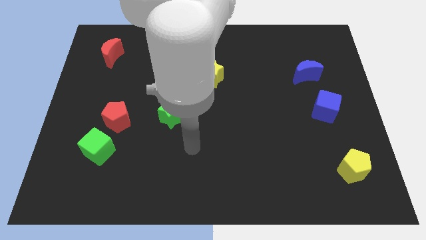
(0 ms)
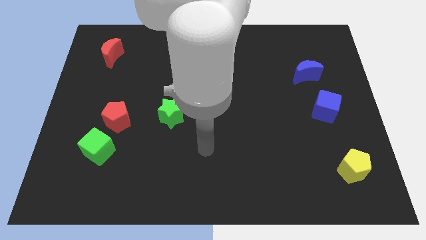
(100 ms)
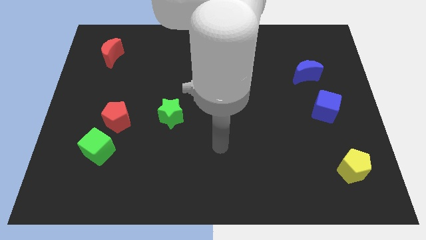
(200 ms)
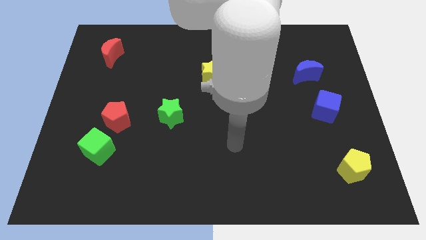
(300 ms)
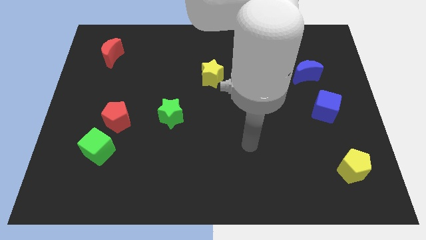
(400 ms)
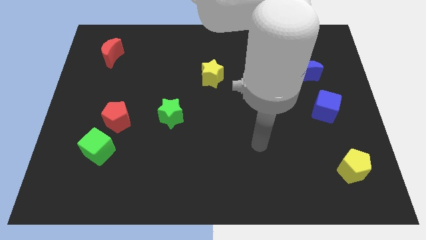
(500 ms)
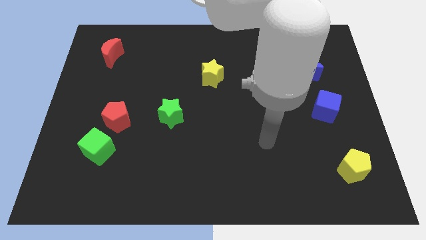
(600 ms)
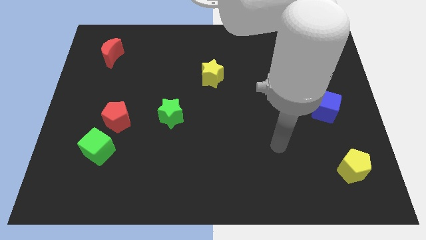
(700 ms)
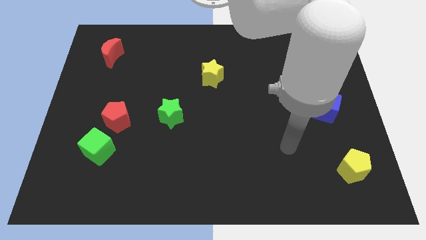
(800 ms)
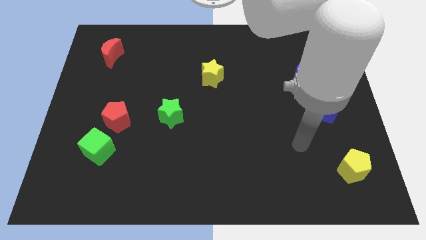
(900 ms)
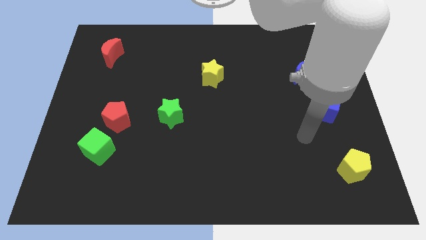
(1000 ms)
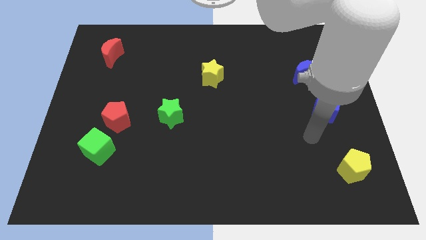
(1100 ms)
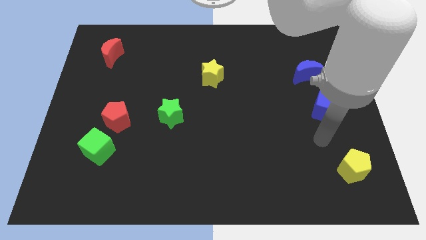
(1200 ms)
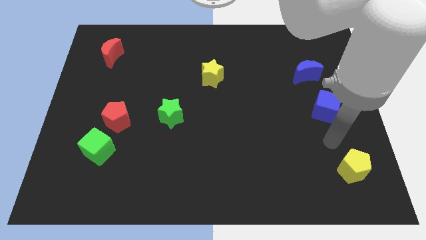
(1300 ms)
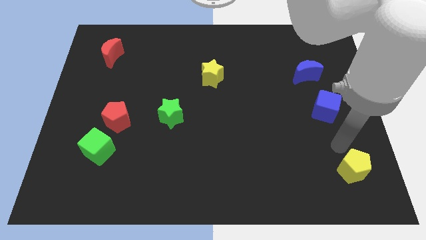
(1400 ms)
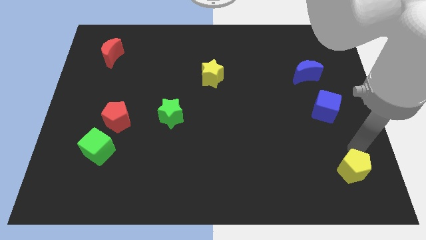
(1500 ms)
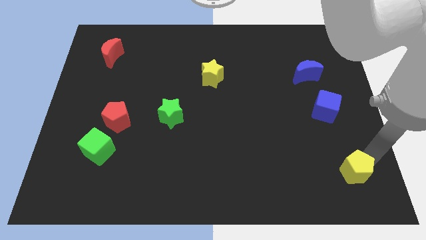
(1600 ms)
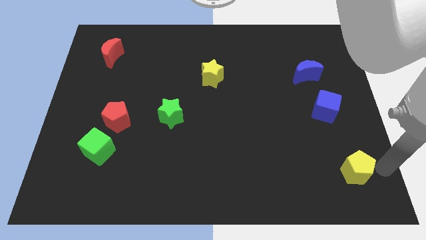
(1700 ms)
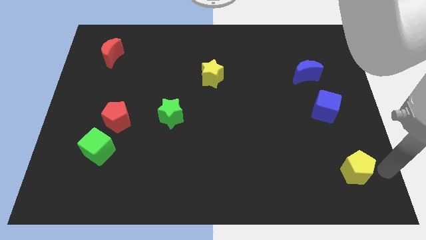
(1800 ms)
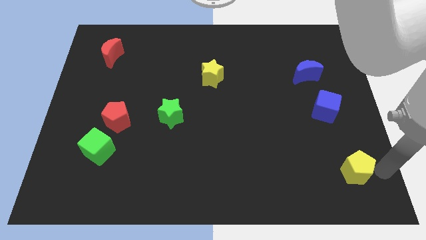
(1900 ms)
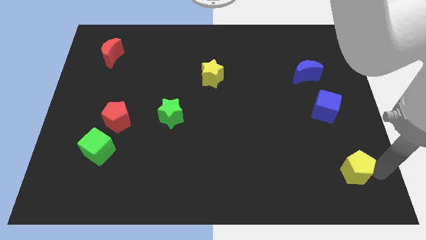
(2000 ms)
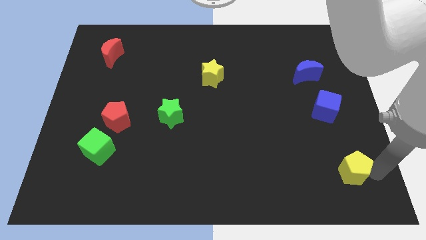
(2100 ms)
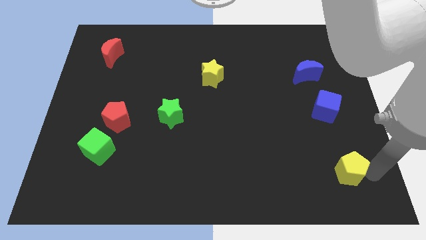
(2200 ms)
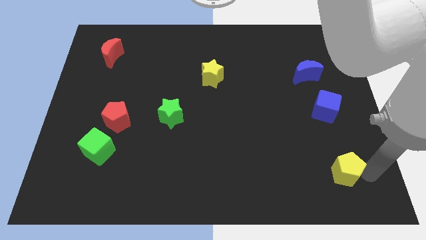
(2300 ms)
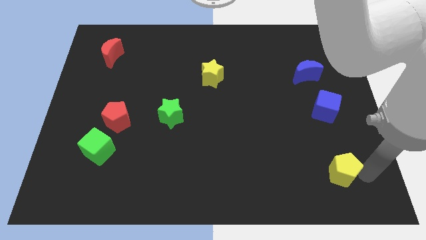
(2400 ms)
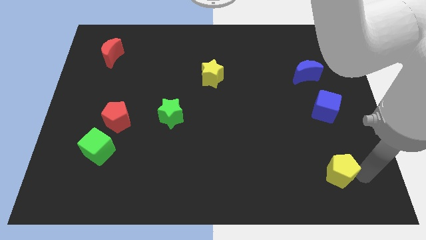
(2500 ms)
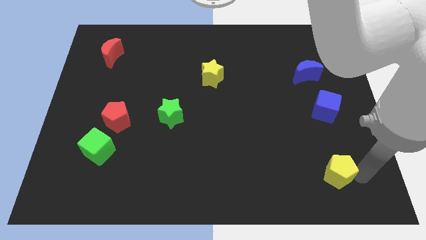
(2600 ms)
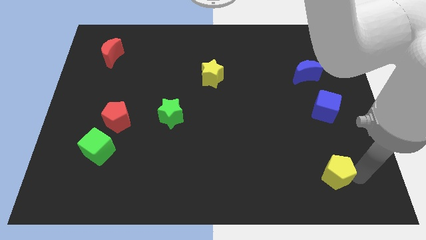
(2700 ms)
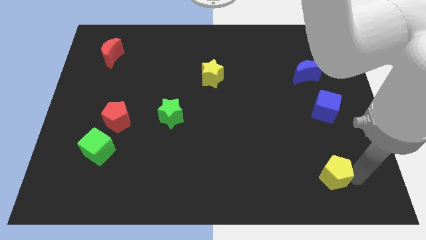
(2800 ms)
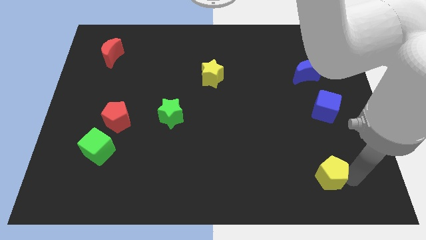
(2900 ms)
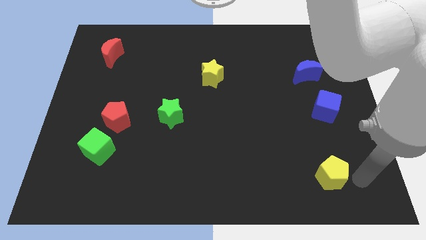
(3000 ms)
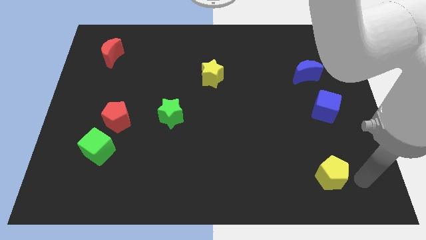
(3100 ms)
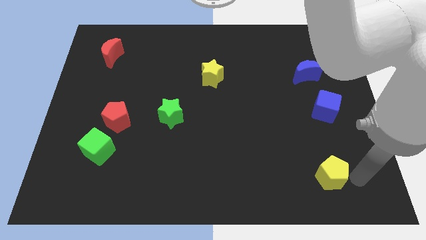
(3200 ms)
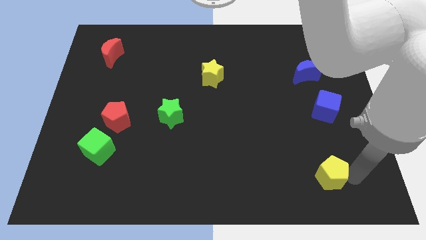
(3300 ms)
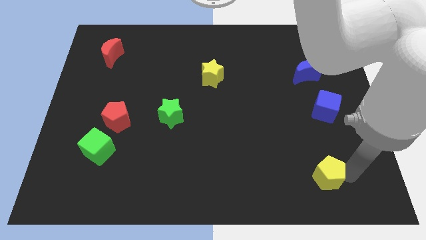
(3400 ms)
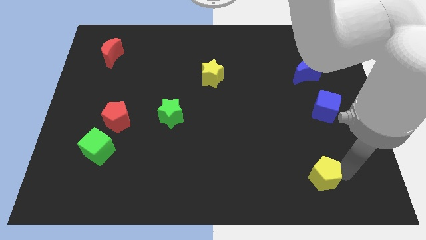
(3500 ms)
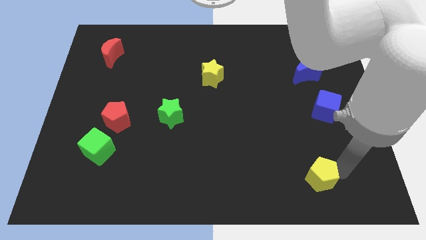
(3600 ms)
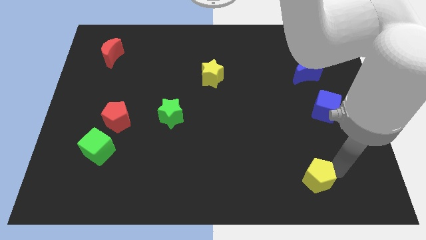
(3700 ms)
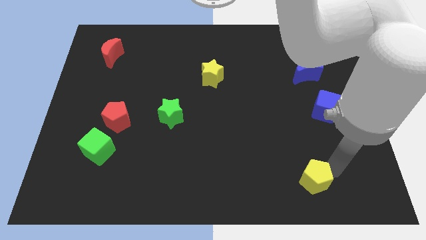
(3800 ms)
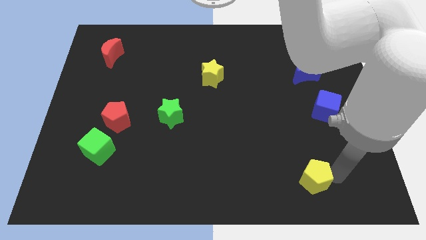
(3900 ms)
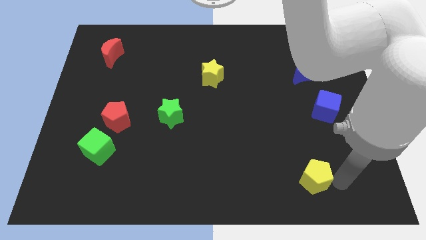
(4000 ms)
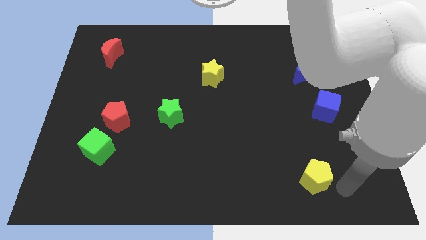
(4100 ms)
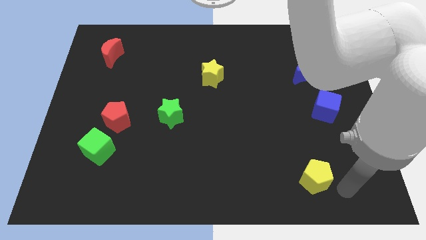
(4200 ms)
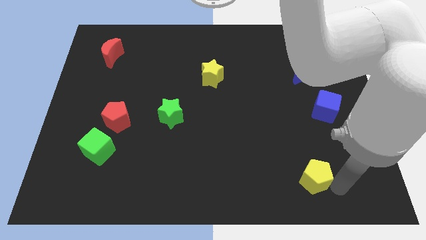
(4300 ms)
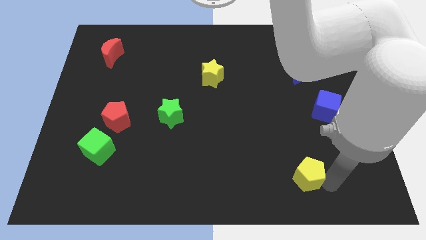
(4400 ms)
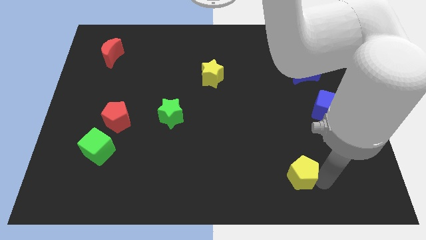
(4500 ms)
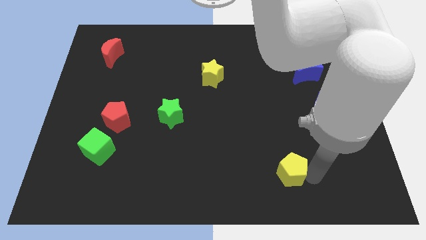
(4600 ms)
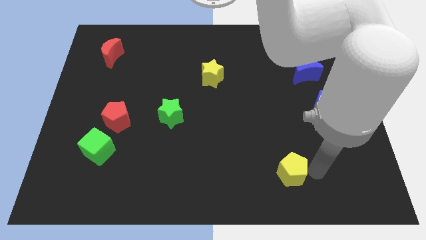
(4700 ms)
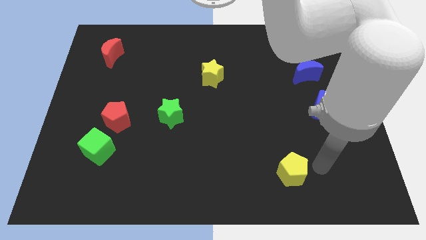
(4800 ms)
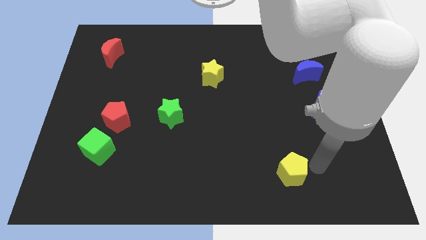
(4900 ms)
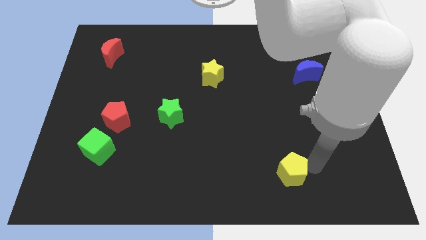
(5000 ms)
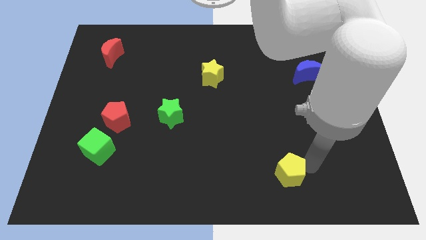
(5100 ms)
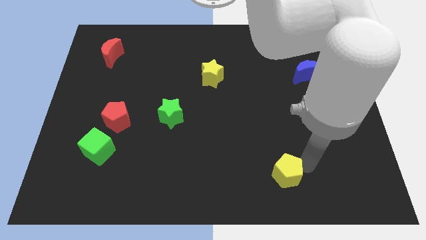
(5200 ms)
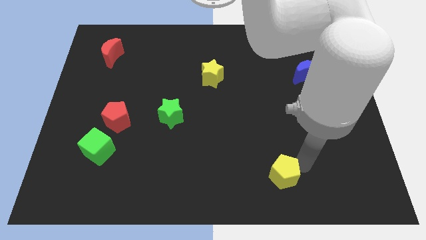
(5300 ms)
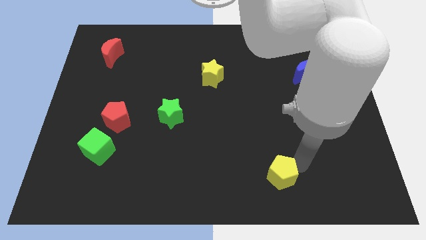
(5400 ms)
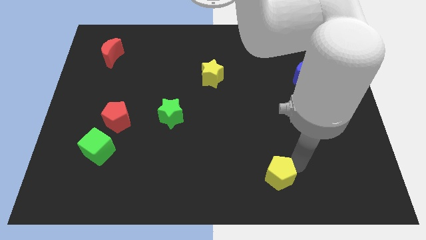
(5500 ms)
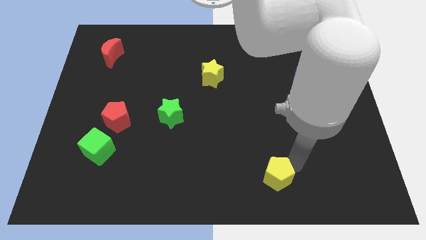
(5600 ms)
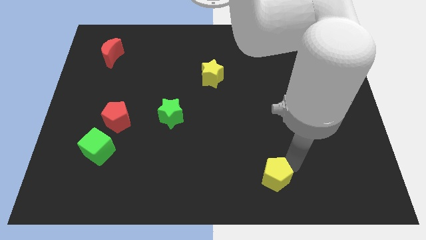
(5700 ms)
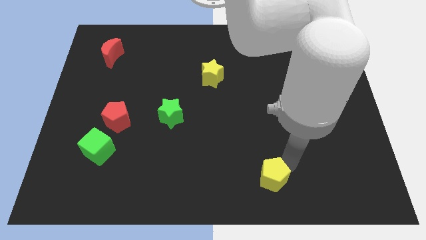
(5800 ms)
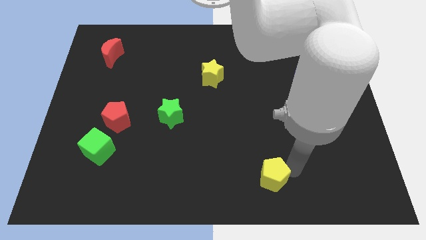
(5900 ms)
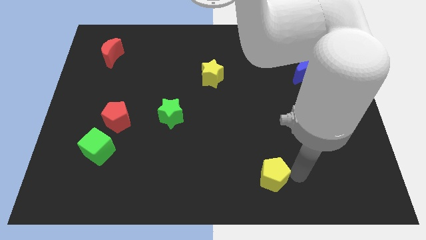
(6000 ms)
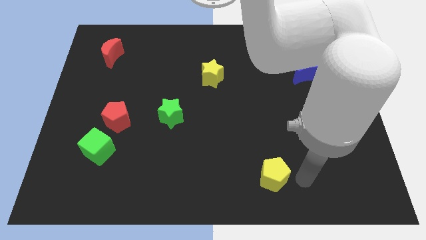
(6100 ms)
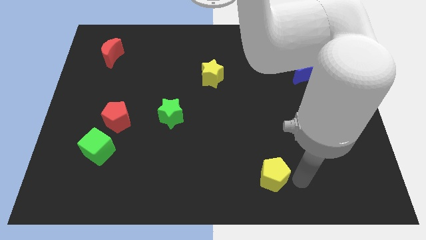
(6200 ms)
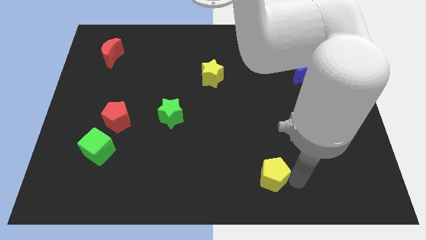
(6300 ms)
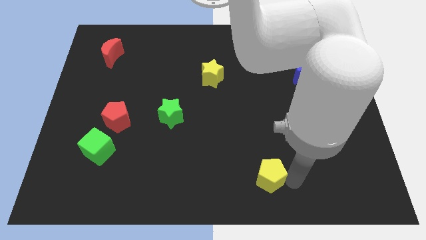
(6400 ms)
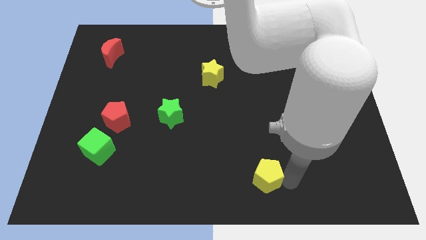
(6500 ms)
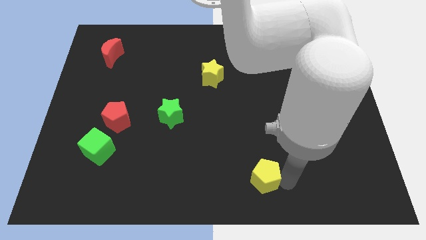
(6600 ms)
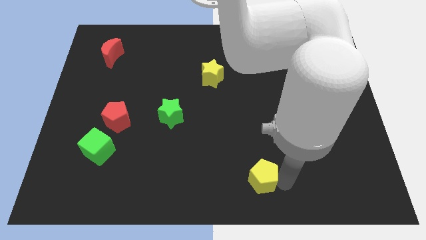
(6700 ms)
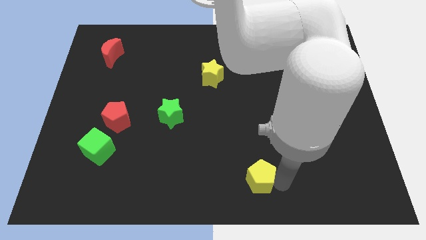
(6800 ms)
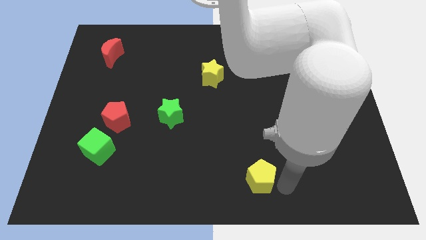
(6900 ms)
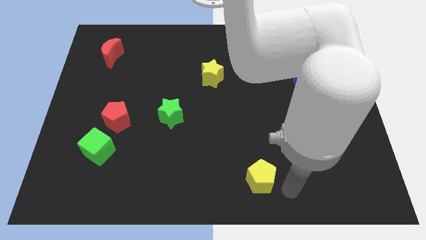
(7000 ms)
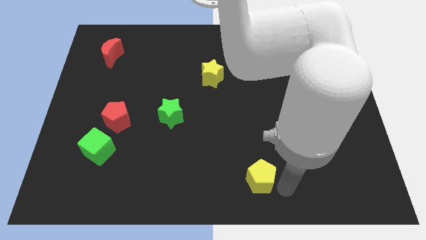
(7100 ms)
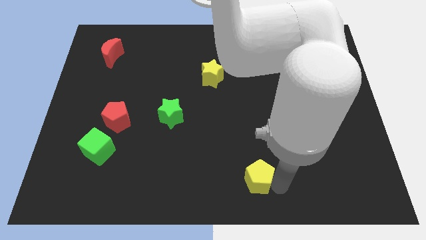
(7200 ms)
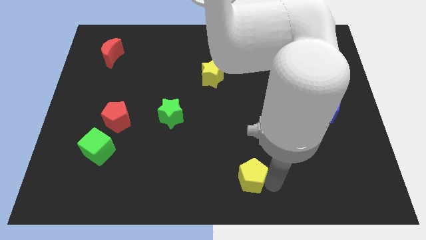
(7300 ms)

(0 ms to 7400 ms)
move the yellow pentagon left

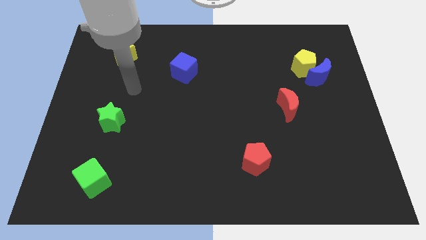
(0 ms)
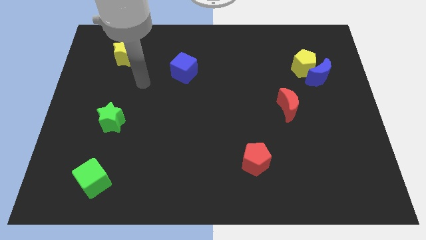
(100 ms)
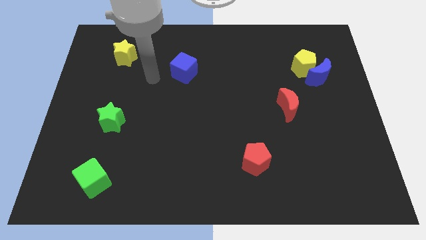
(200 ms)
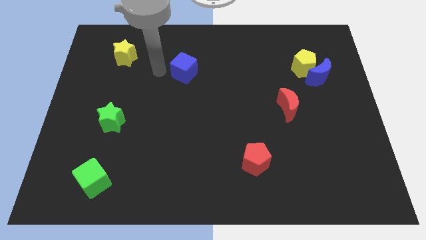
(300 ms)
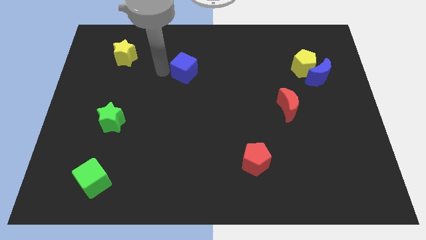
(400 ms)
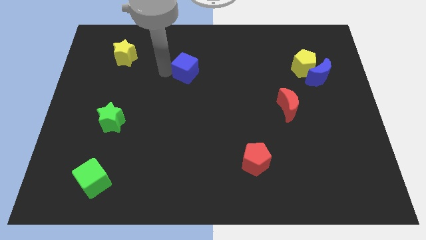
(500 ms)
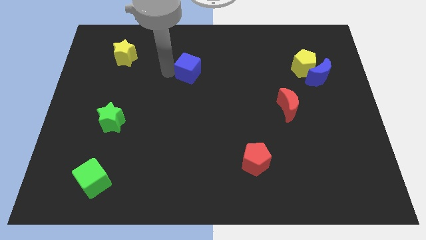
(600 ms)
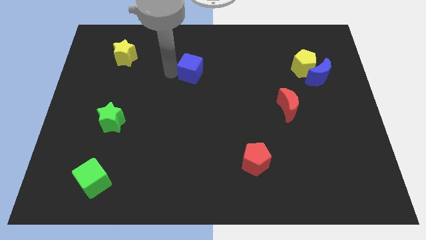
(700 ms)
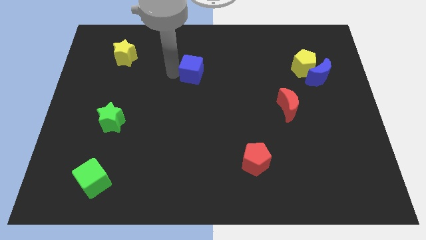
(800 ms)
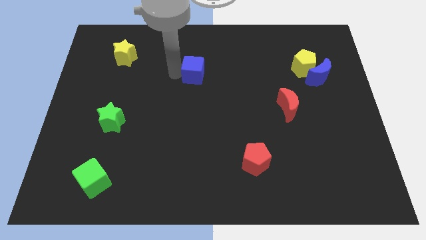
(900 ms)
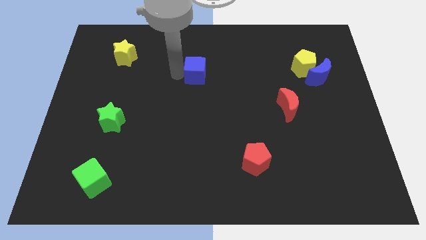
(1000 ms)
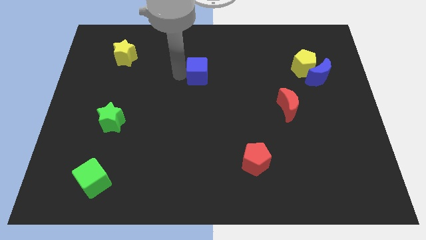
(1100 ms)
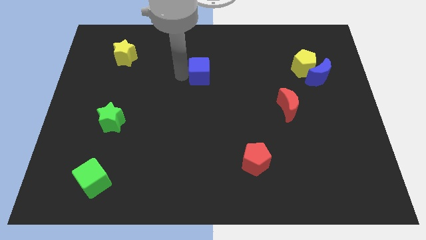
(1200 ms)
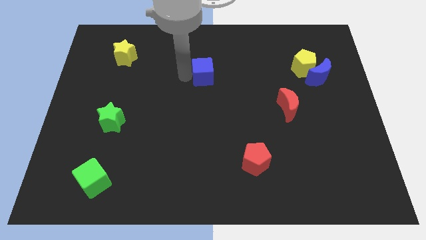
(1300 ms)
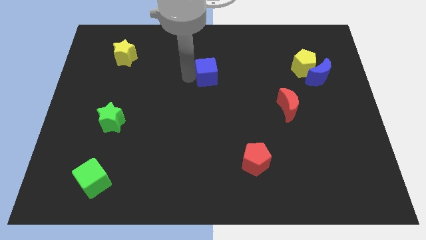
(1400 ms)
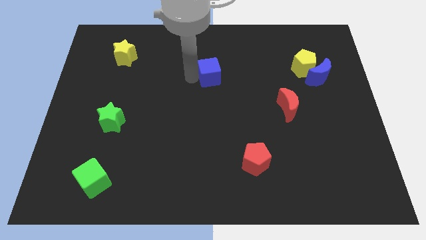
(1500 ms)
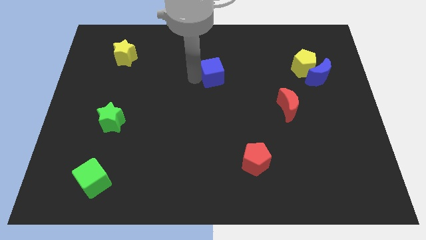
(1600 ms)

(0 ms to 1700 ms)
slightly push the blue cube to the right
